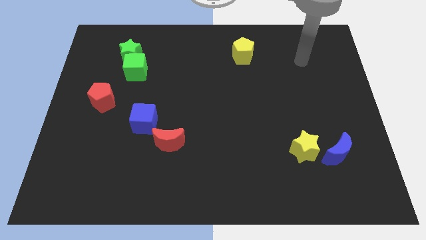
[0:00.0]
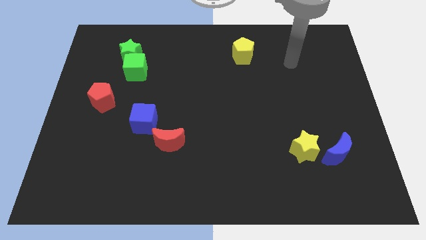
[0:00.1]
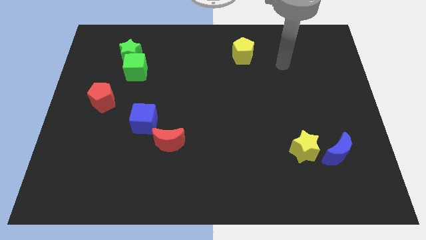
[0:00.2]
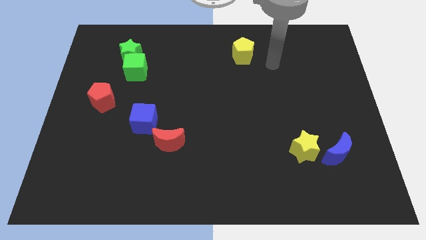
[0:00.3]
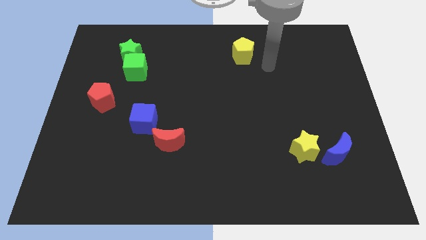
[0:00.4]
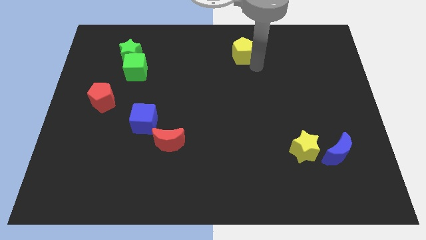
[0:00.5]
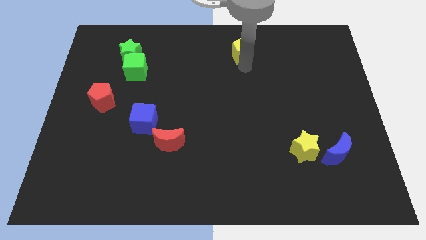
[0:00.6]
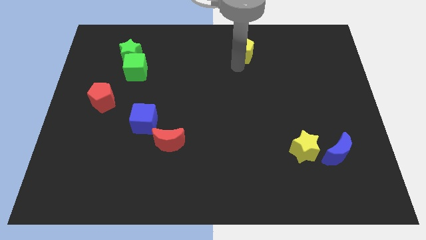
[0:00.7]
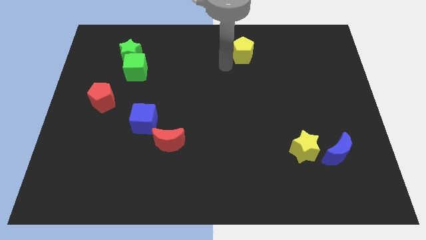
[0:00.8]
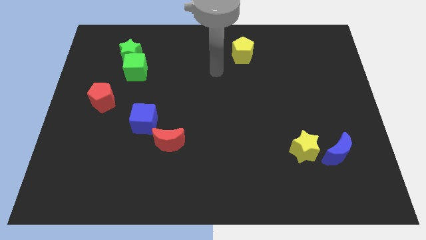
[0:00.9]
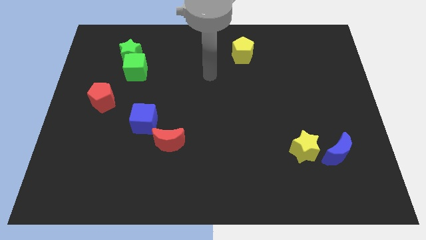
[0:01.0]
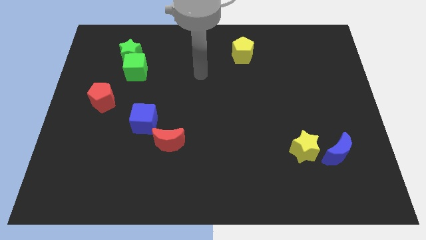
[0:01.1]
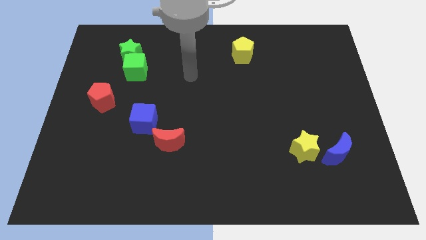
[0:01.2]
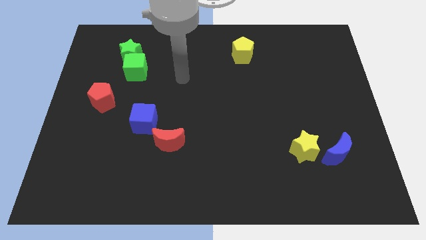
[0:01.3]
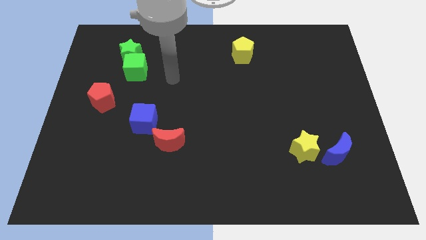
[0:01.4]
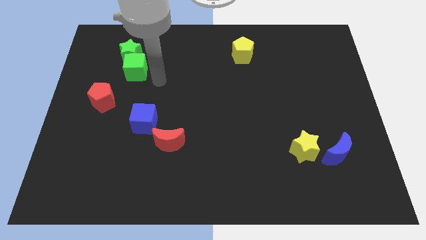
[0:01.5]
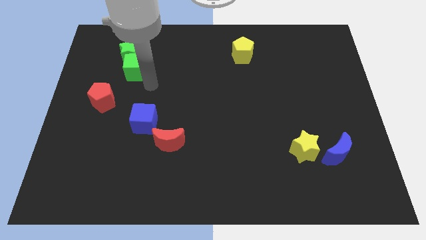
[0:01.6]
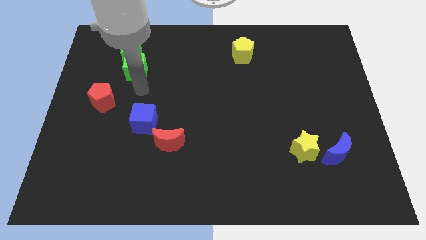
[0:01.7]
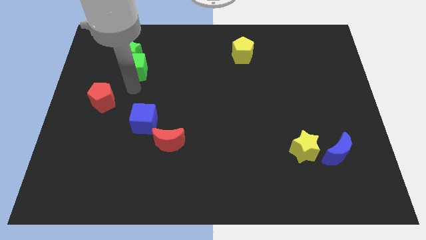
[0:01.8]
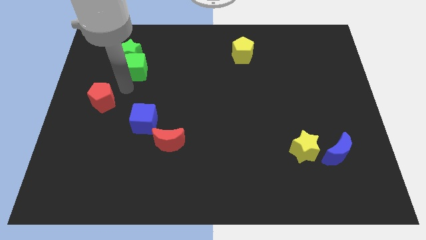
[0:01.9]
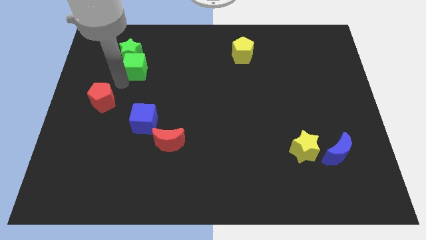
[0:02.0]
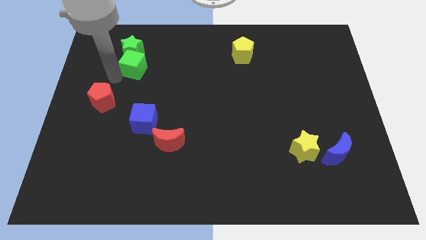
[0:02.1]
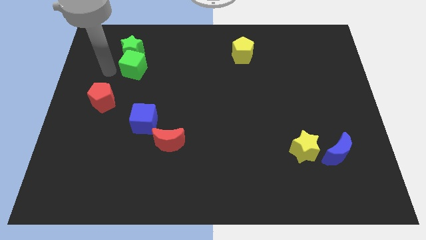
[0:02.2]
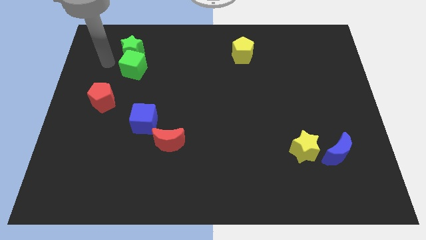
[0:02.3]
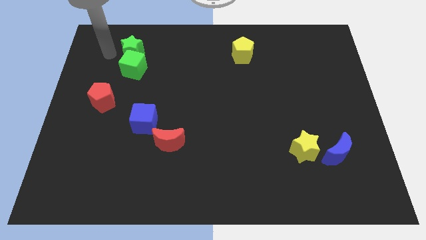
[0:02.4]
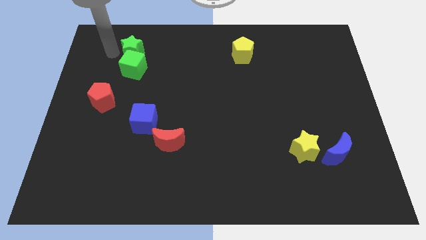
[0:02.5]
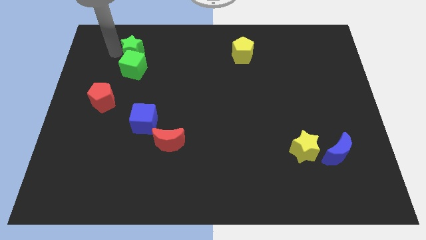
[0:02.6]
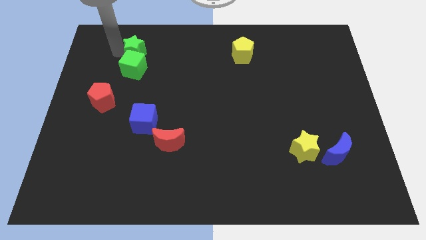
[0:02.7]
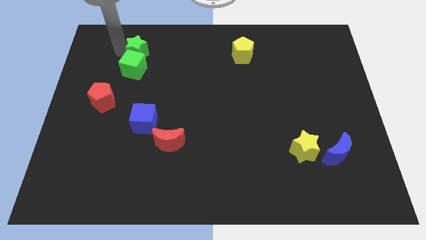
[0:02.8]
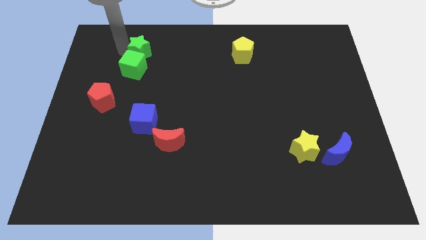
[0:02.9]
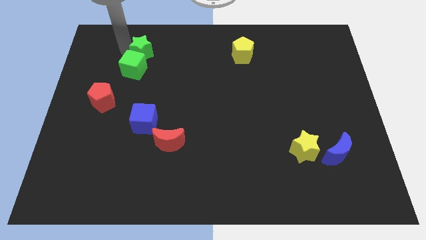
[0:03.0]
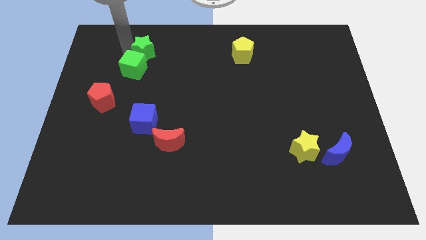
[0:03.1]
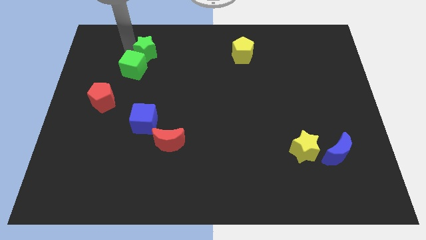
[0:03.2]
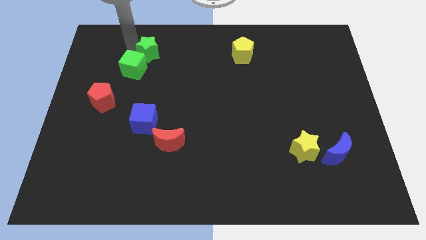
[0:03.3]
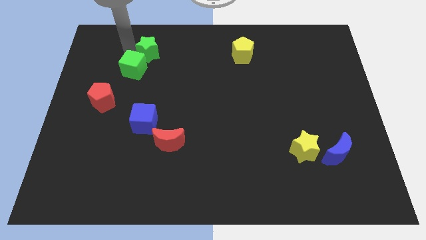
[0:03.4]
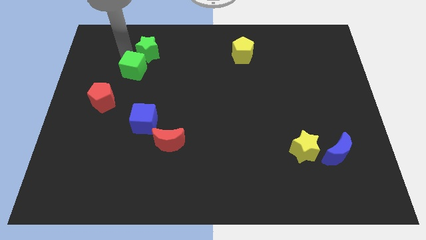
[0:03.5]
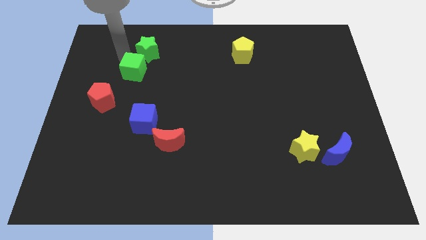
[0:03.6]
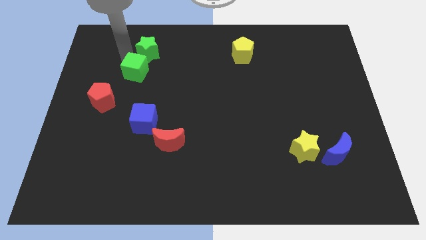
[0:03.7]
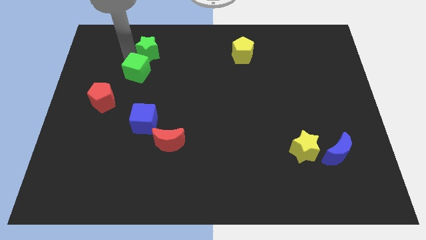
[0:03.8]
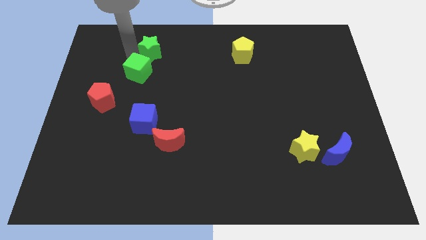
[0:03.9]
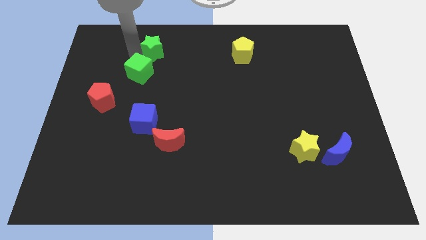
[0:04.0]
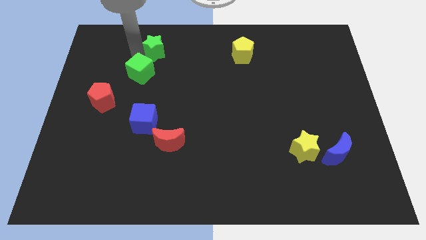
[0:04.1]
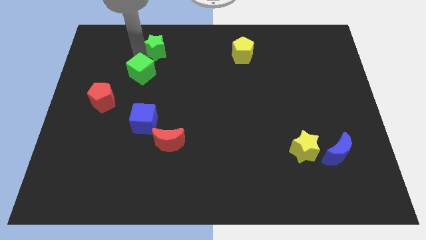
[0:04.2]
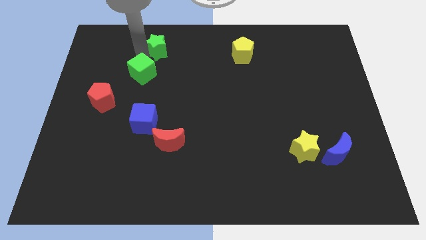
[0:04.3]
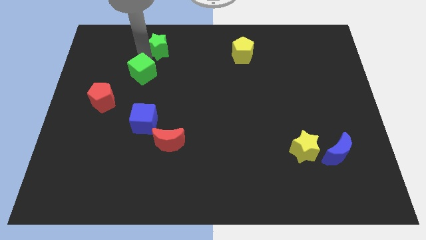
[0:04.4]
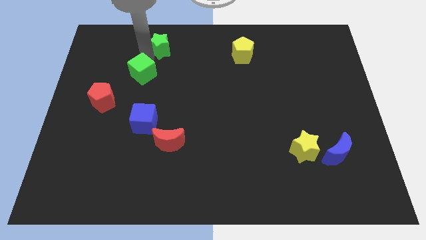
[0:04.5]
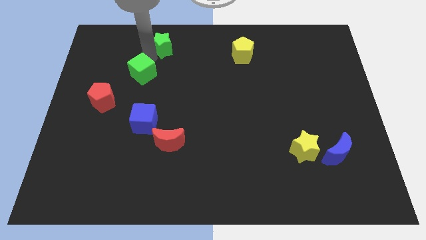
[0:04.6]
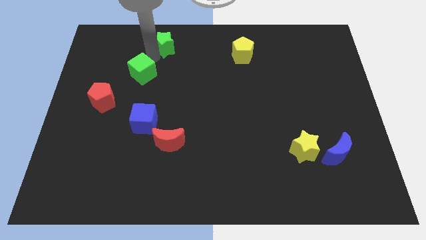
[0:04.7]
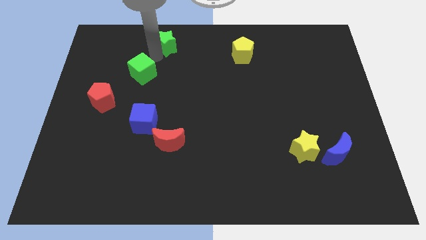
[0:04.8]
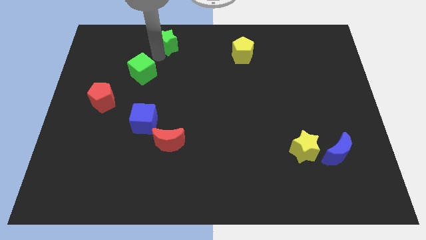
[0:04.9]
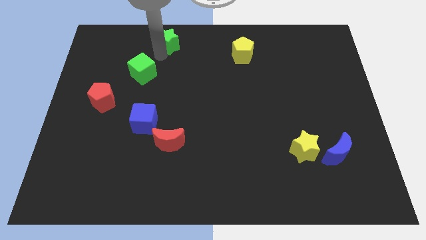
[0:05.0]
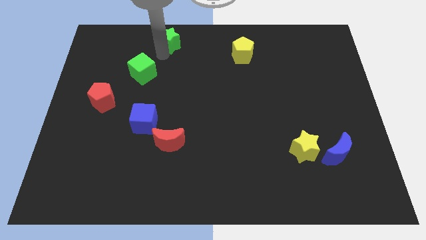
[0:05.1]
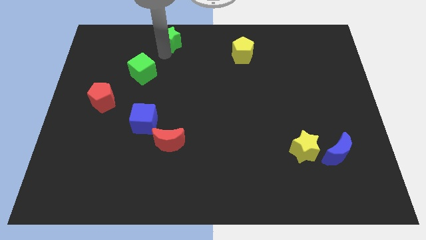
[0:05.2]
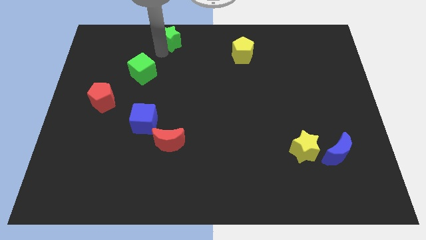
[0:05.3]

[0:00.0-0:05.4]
move the green star to the top

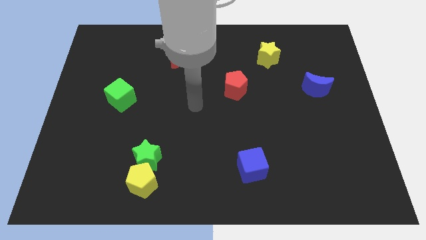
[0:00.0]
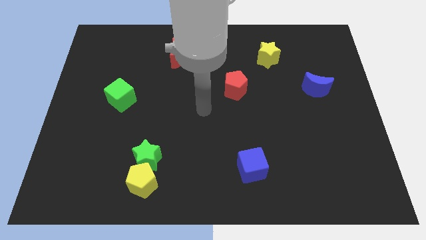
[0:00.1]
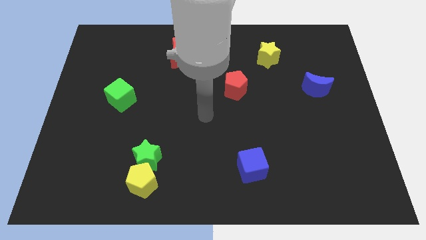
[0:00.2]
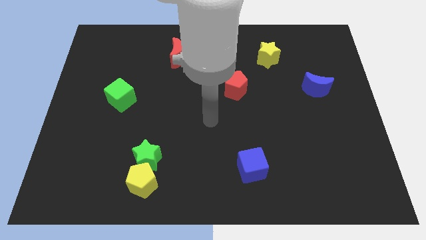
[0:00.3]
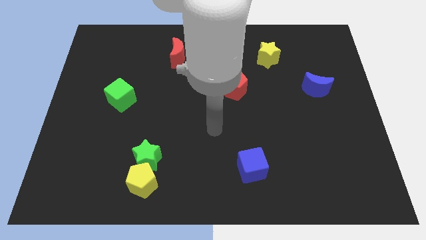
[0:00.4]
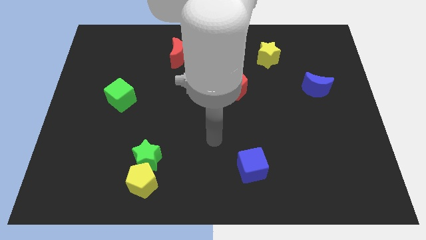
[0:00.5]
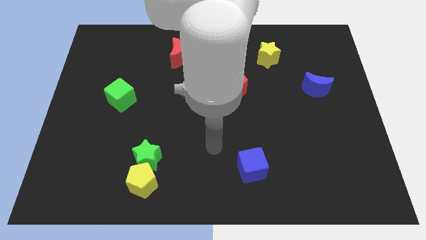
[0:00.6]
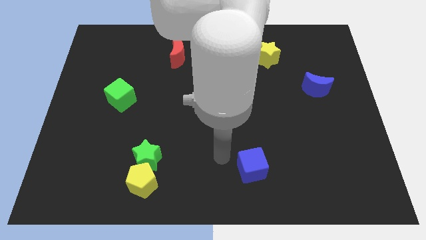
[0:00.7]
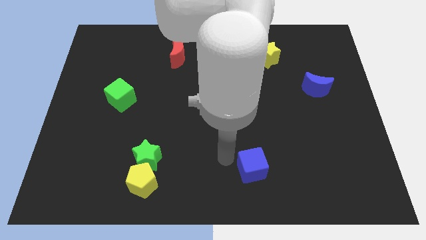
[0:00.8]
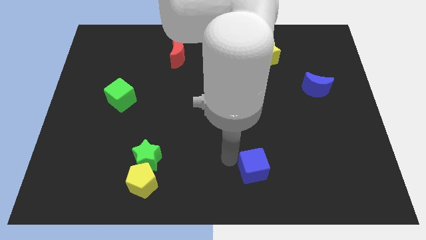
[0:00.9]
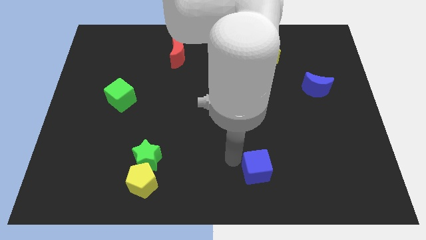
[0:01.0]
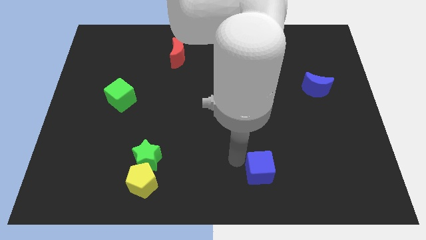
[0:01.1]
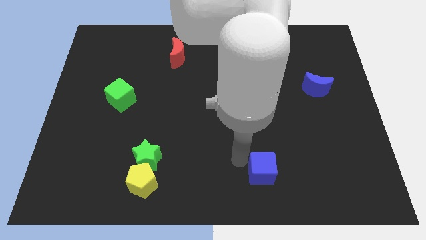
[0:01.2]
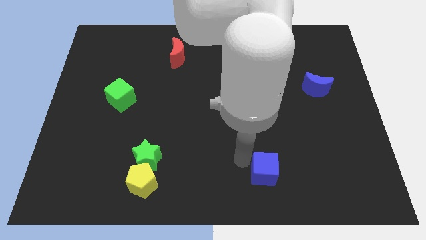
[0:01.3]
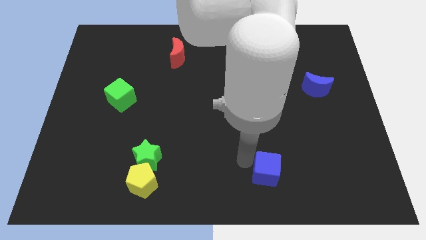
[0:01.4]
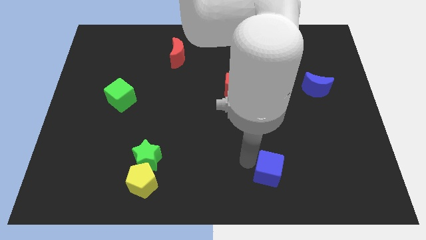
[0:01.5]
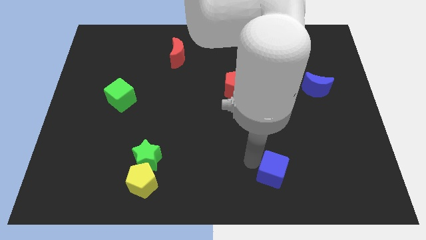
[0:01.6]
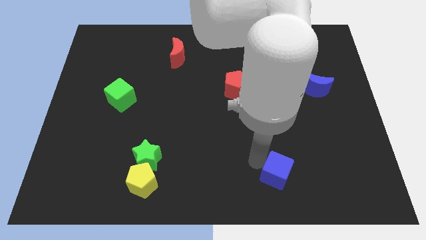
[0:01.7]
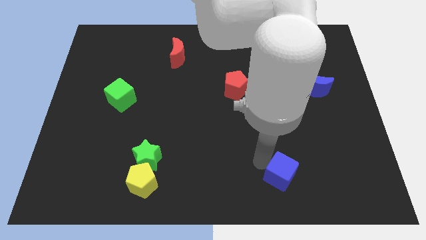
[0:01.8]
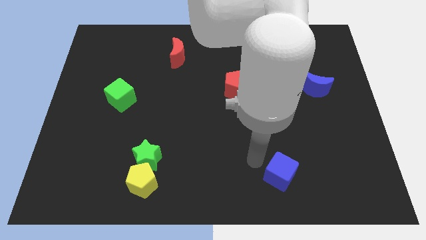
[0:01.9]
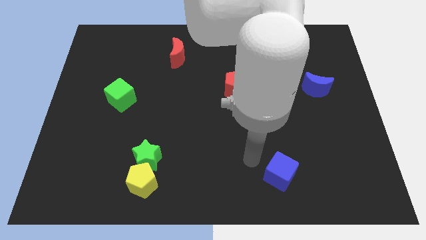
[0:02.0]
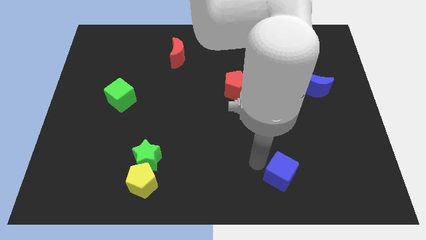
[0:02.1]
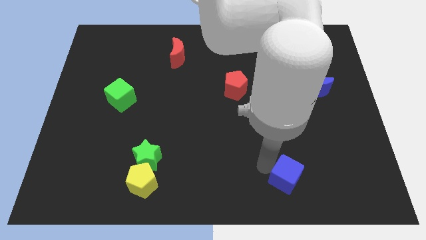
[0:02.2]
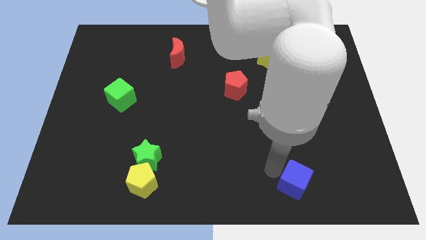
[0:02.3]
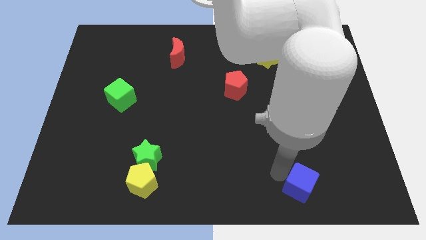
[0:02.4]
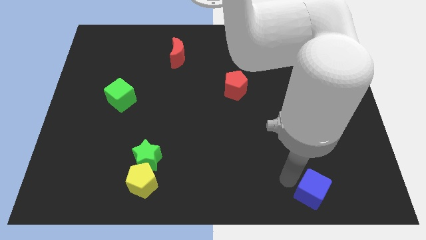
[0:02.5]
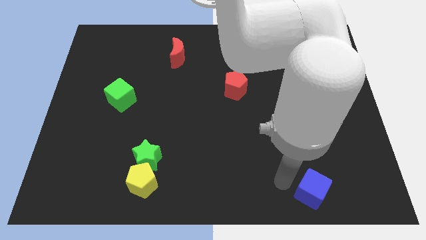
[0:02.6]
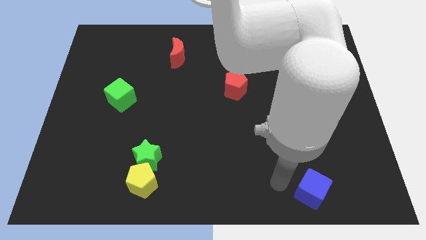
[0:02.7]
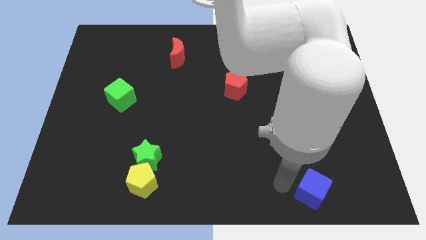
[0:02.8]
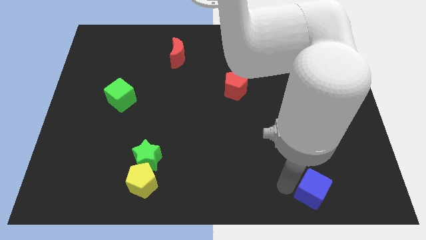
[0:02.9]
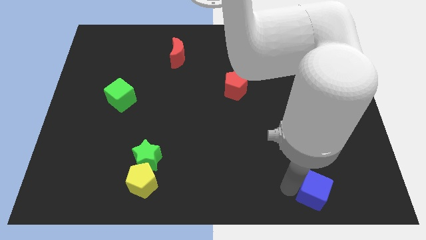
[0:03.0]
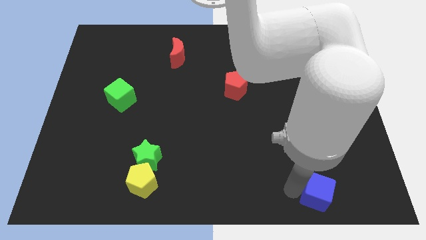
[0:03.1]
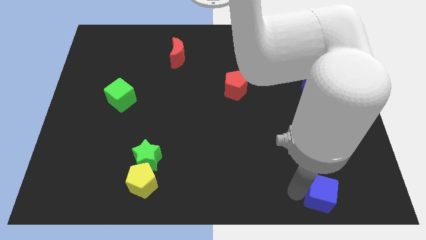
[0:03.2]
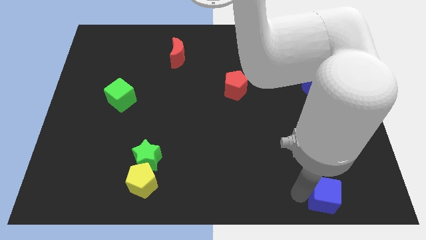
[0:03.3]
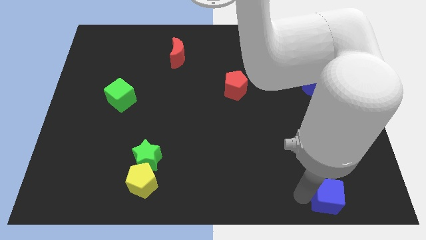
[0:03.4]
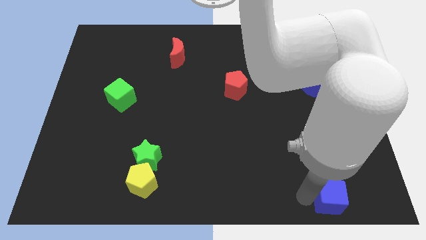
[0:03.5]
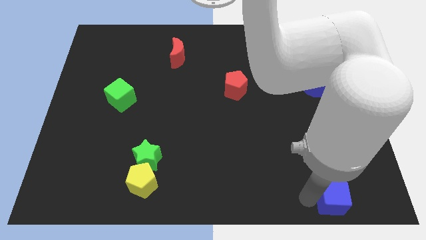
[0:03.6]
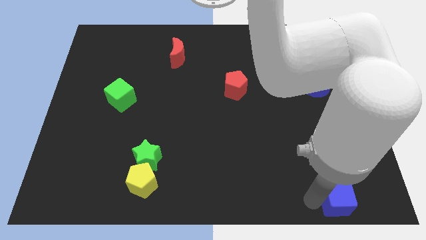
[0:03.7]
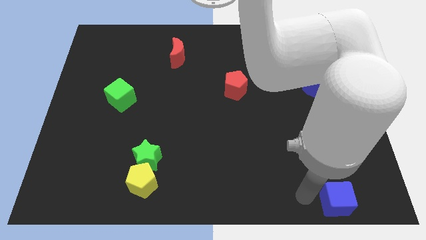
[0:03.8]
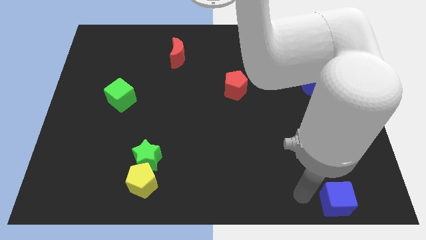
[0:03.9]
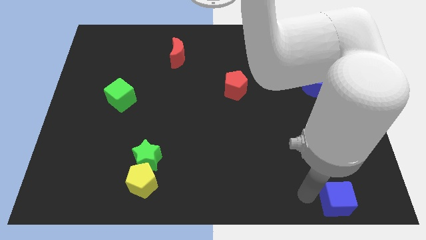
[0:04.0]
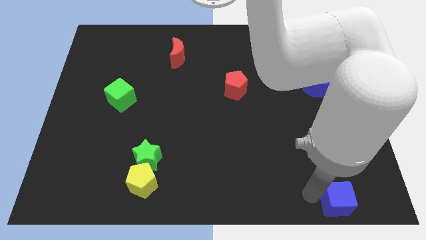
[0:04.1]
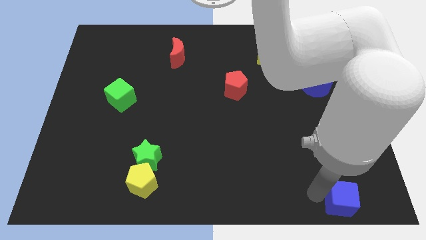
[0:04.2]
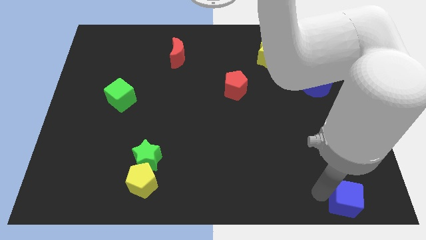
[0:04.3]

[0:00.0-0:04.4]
push the blue cube to the bottom right corner
